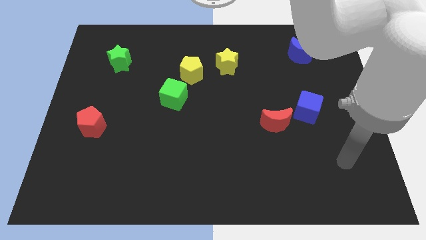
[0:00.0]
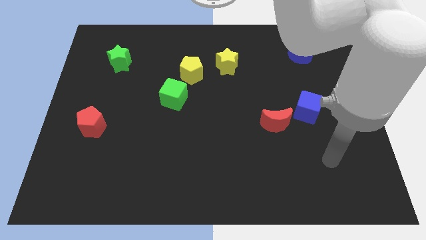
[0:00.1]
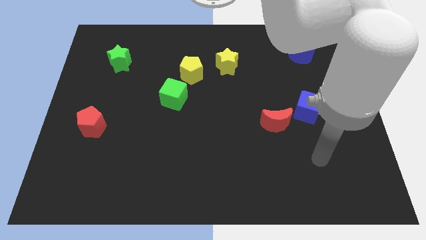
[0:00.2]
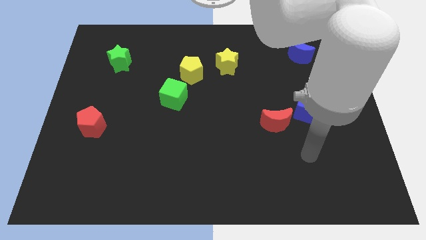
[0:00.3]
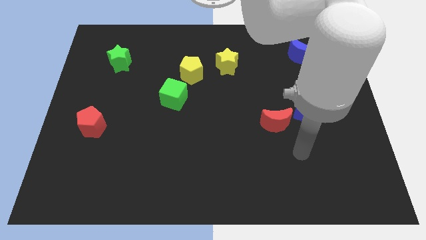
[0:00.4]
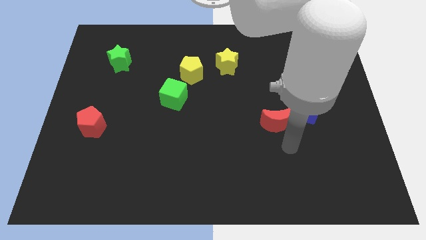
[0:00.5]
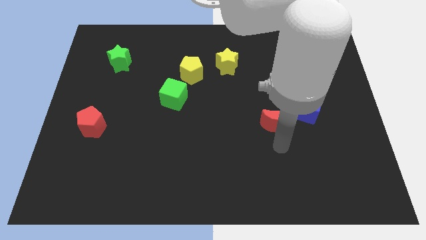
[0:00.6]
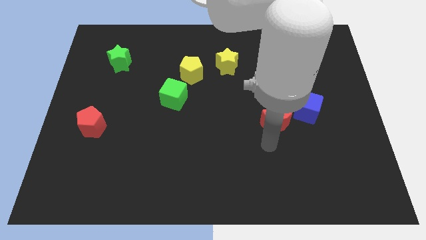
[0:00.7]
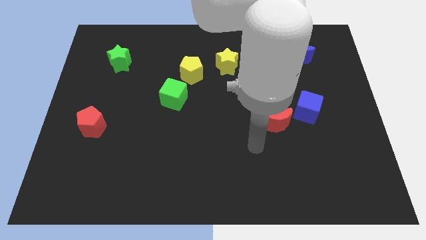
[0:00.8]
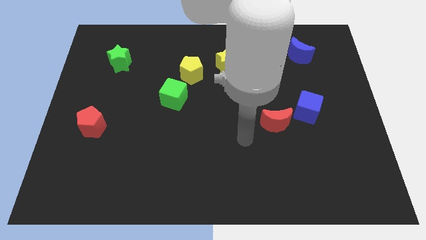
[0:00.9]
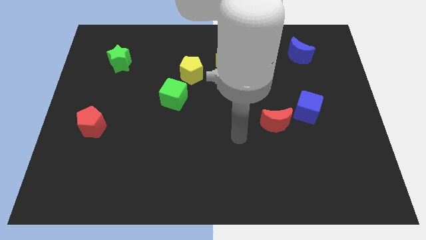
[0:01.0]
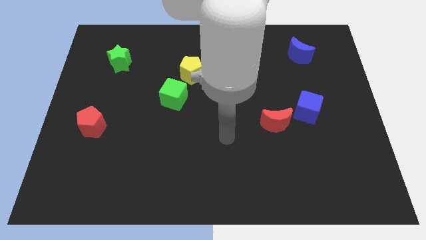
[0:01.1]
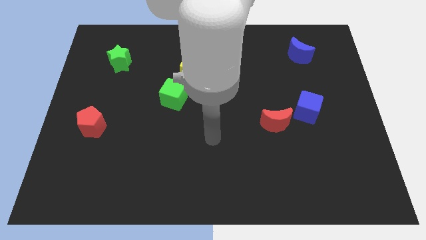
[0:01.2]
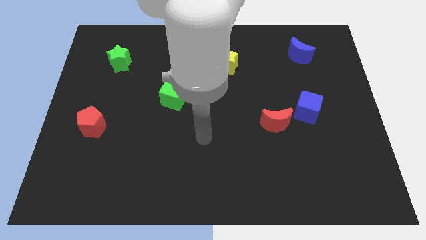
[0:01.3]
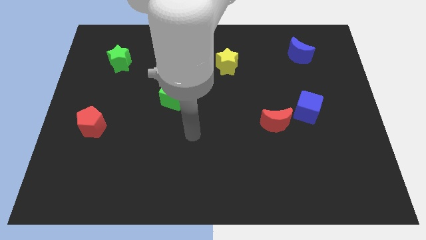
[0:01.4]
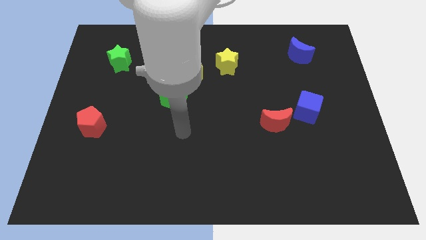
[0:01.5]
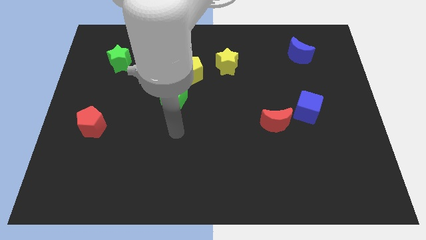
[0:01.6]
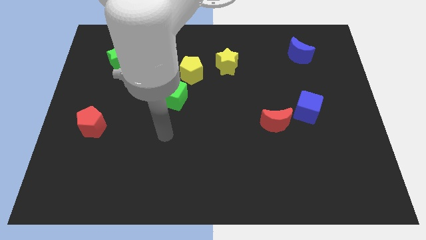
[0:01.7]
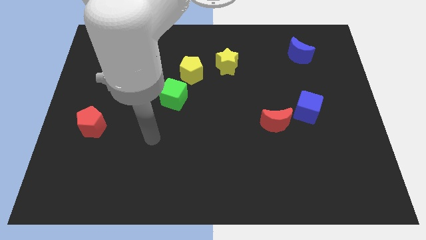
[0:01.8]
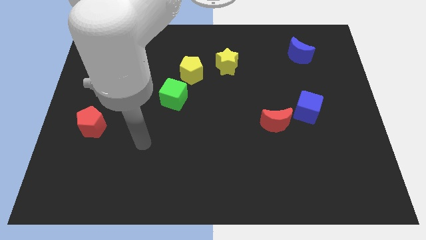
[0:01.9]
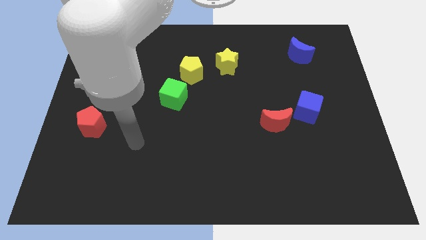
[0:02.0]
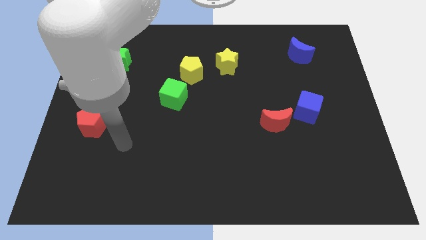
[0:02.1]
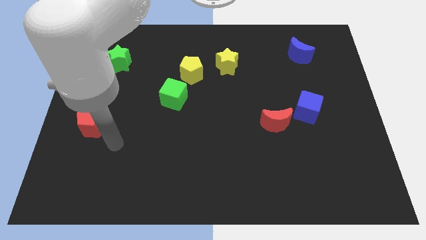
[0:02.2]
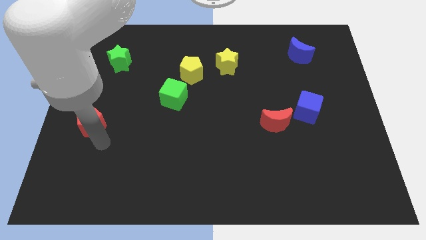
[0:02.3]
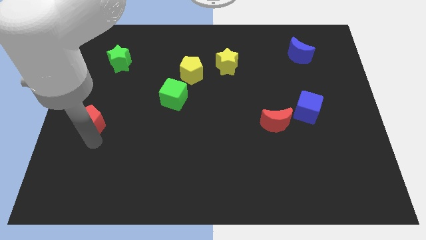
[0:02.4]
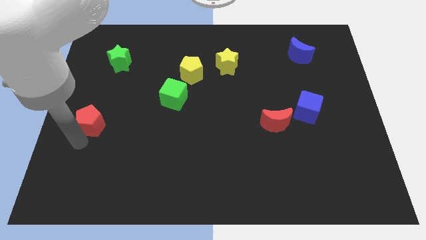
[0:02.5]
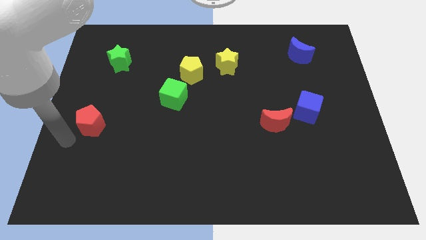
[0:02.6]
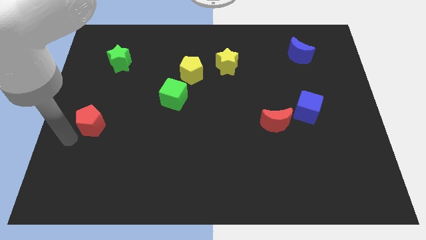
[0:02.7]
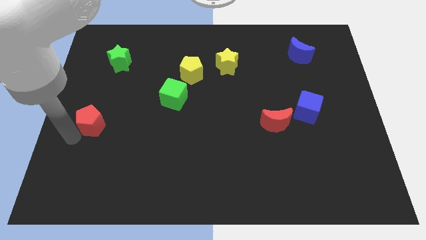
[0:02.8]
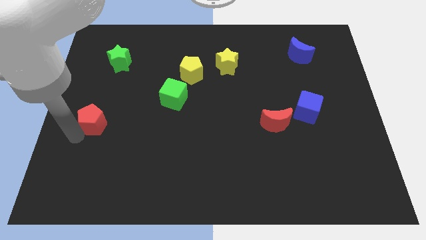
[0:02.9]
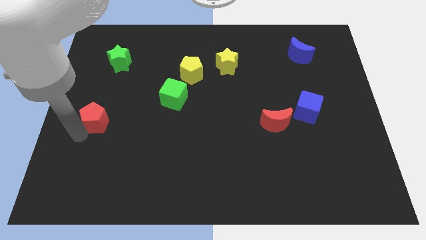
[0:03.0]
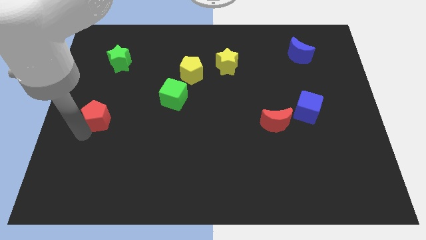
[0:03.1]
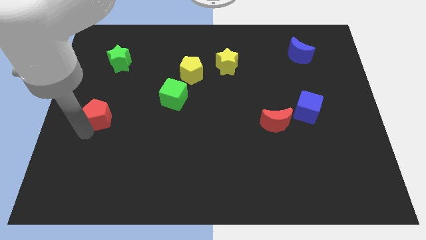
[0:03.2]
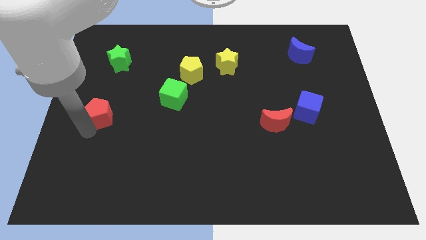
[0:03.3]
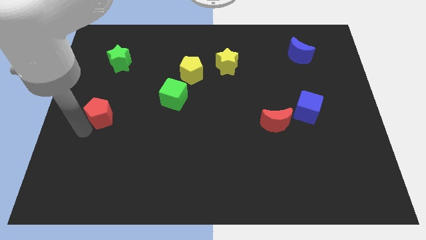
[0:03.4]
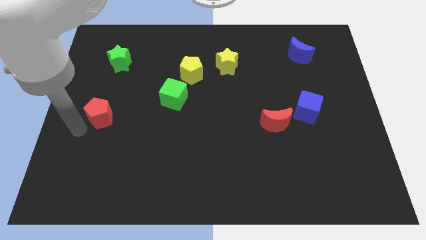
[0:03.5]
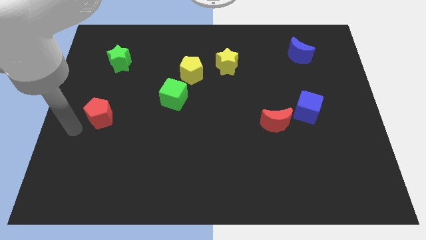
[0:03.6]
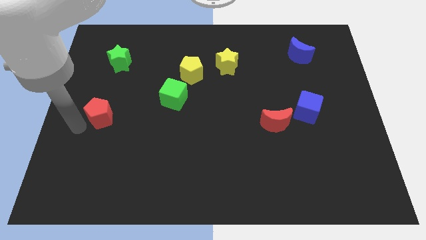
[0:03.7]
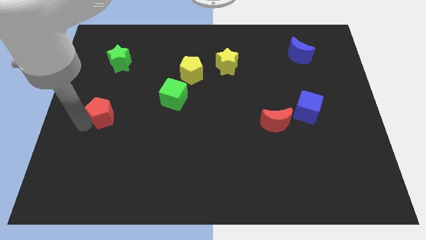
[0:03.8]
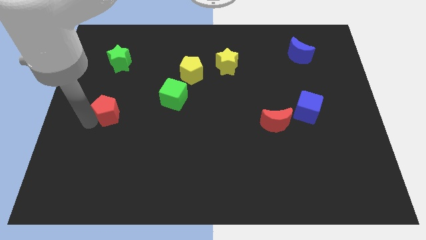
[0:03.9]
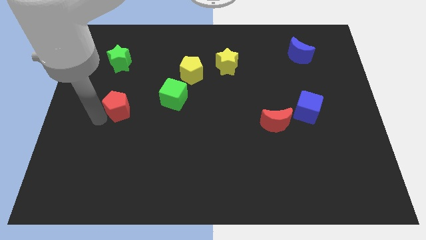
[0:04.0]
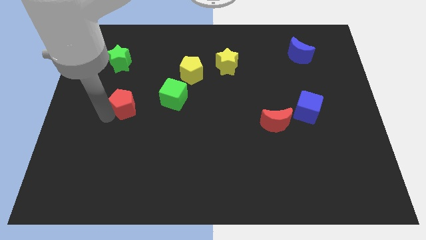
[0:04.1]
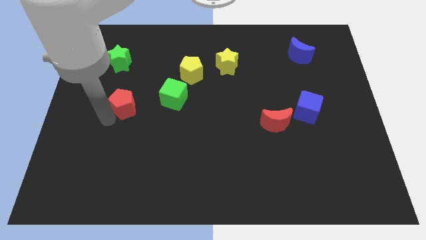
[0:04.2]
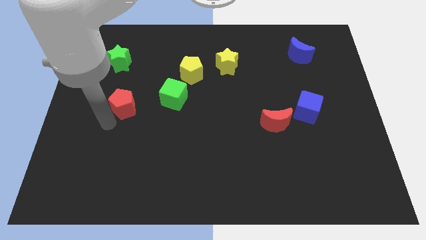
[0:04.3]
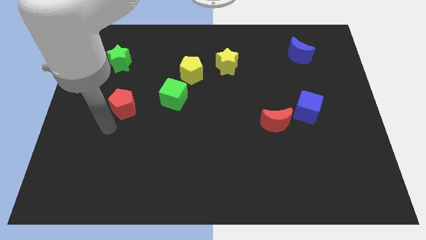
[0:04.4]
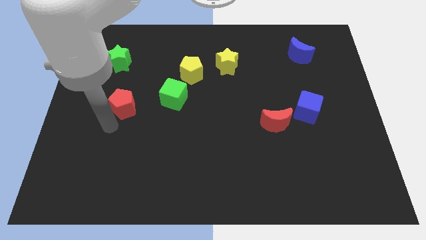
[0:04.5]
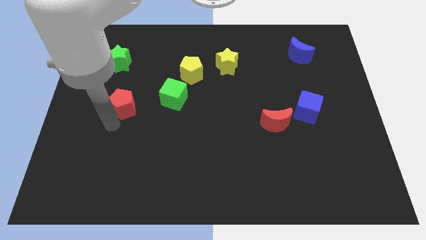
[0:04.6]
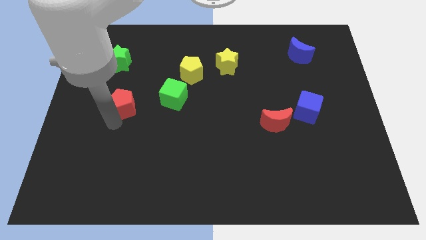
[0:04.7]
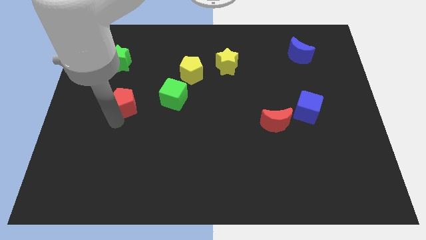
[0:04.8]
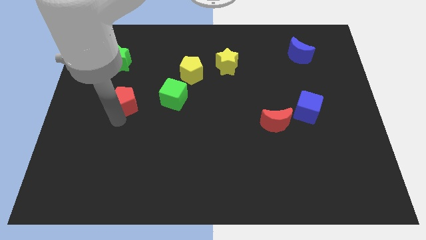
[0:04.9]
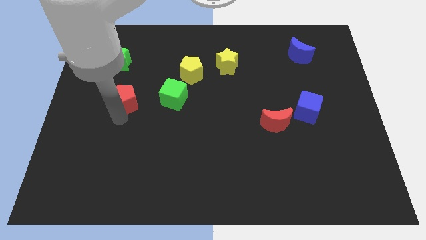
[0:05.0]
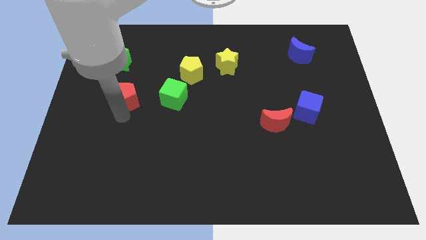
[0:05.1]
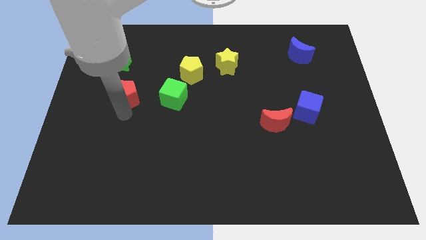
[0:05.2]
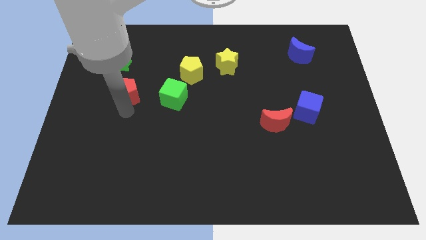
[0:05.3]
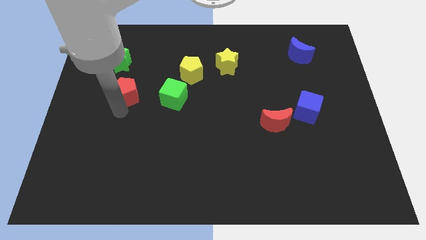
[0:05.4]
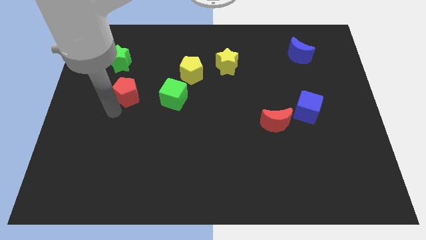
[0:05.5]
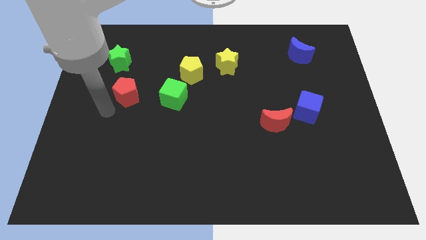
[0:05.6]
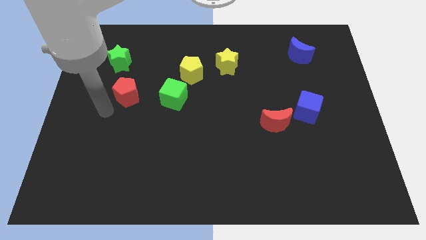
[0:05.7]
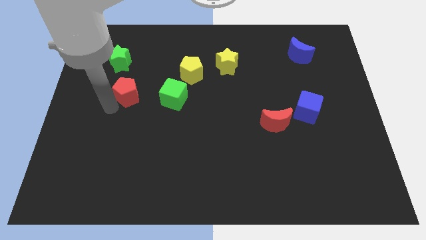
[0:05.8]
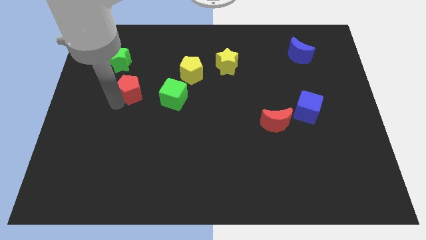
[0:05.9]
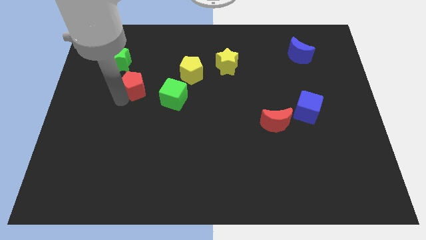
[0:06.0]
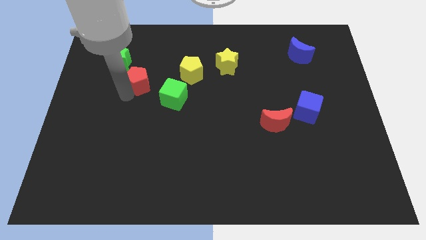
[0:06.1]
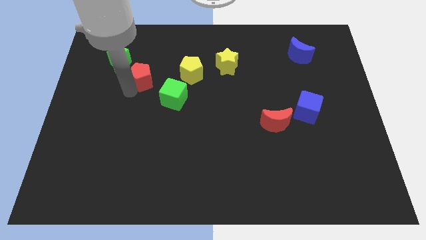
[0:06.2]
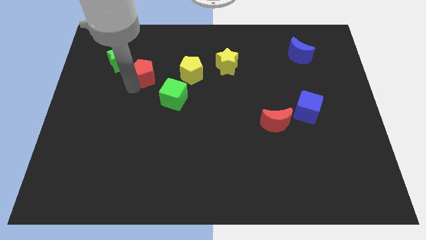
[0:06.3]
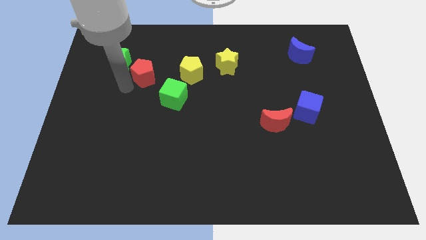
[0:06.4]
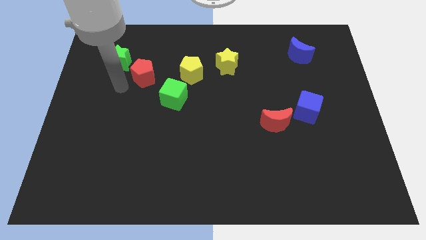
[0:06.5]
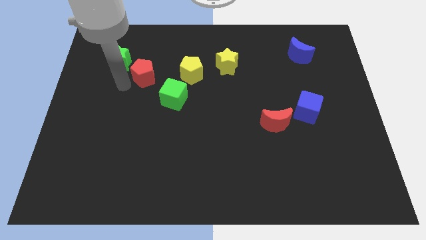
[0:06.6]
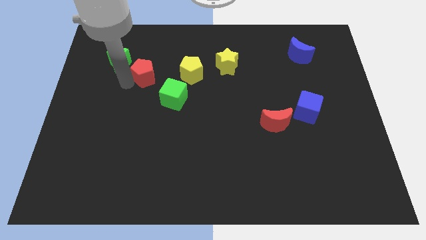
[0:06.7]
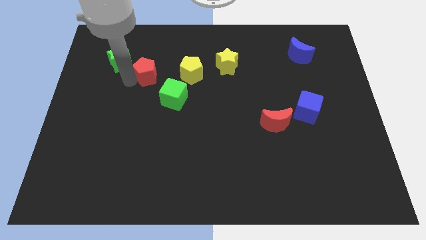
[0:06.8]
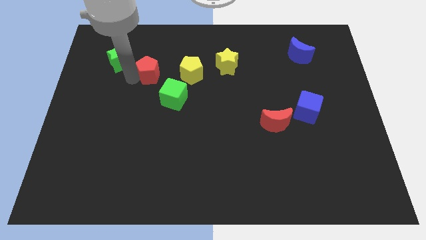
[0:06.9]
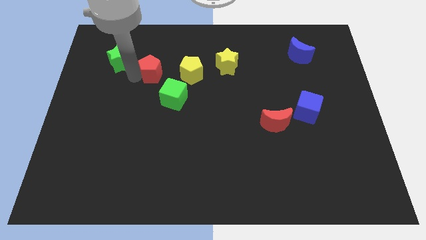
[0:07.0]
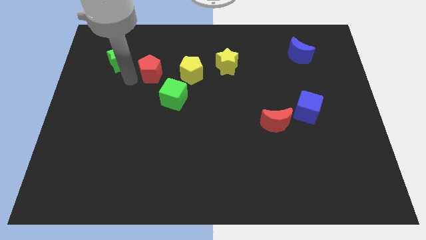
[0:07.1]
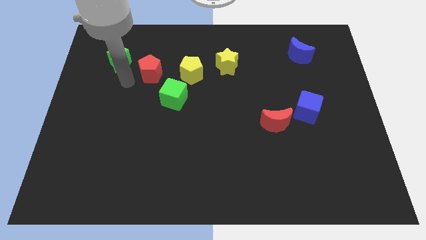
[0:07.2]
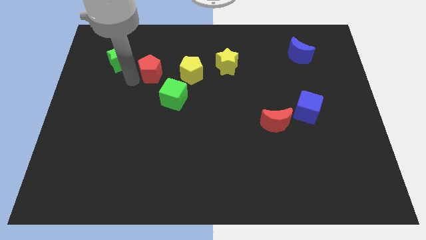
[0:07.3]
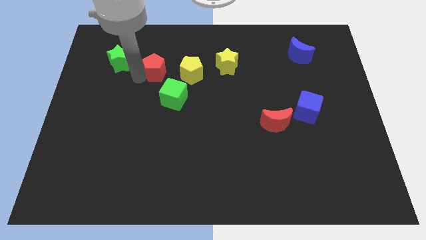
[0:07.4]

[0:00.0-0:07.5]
move the red pentagon upwards and right

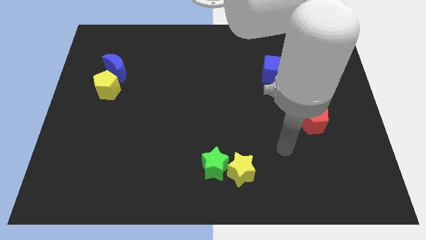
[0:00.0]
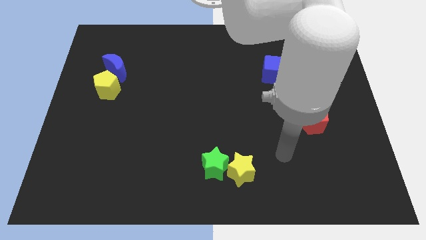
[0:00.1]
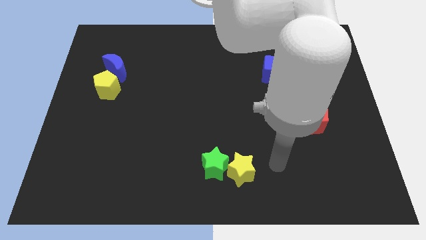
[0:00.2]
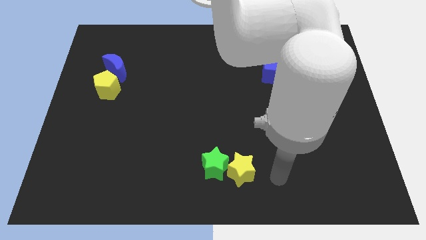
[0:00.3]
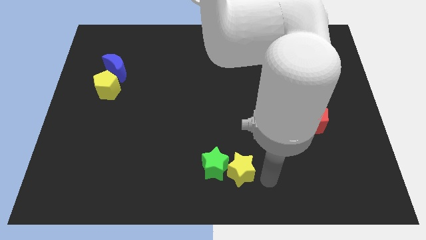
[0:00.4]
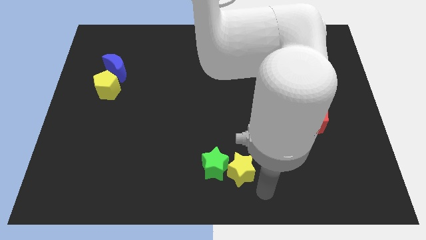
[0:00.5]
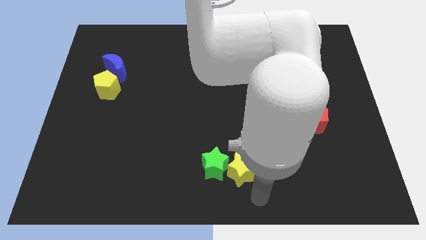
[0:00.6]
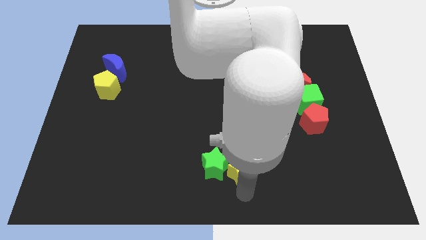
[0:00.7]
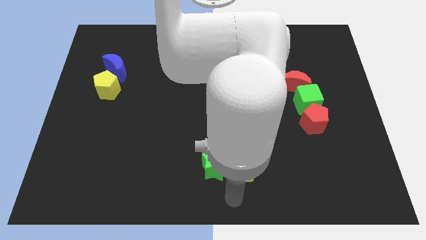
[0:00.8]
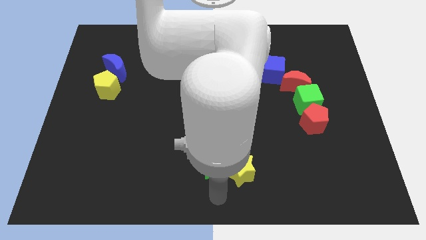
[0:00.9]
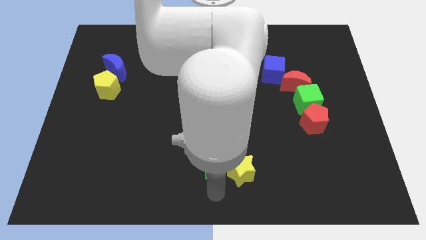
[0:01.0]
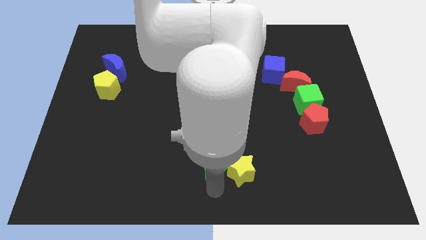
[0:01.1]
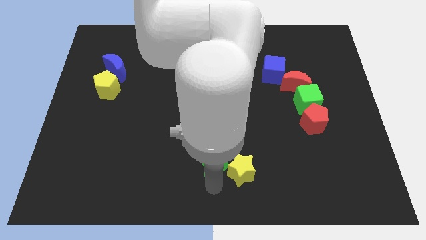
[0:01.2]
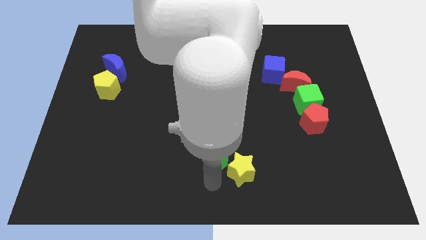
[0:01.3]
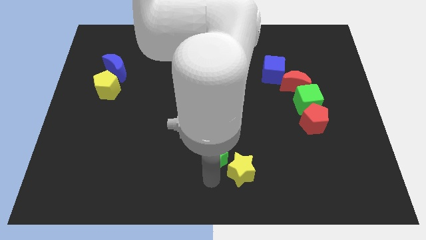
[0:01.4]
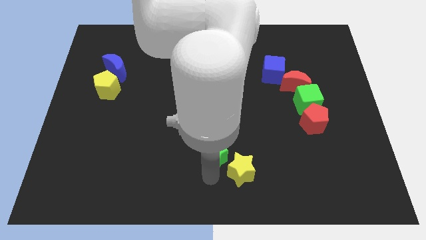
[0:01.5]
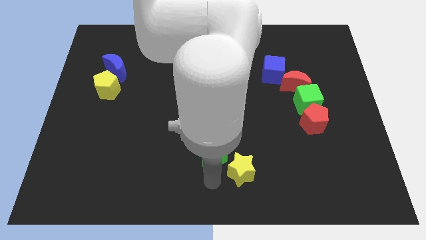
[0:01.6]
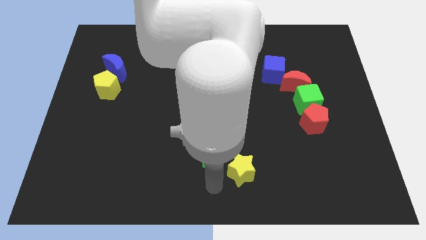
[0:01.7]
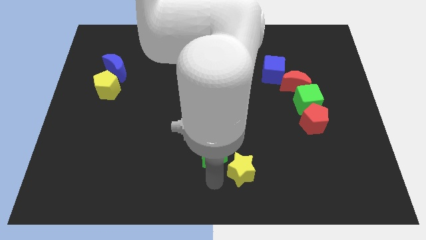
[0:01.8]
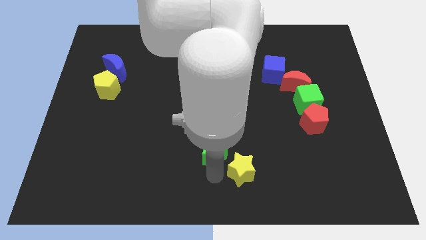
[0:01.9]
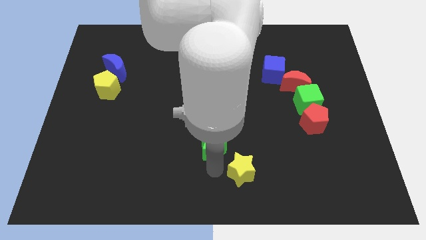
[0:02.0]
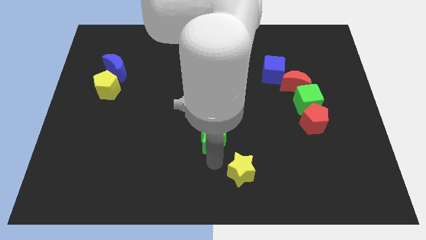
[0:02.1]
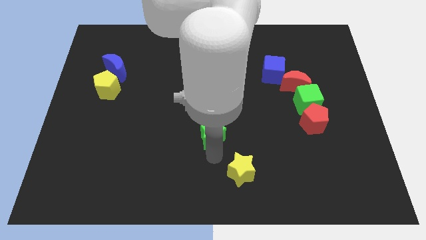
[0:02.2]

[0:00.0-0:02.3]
move the green star upwards slightly
